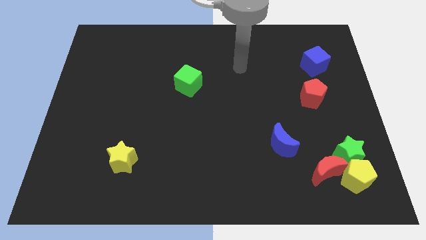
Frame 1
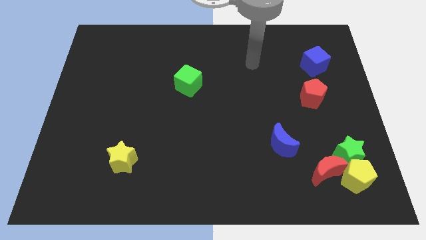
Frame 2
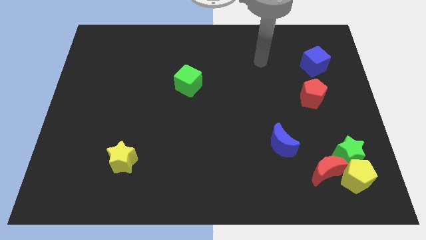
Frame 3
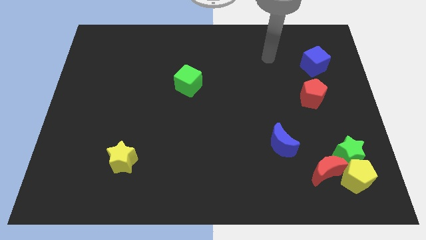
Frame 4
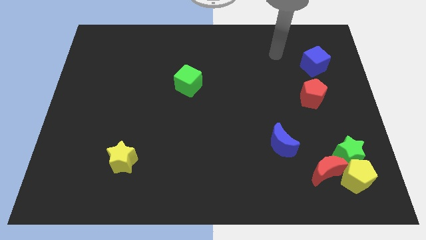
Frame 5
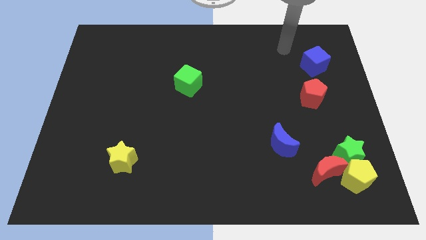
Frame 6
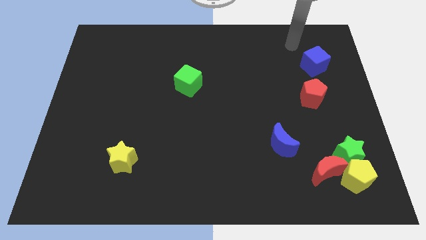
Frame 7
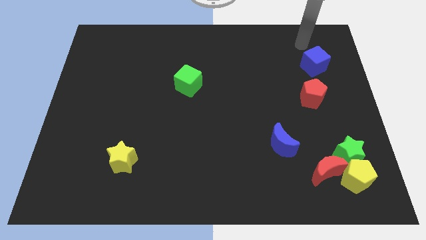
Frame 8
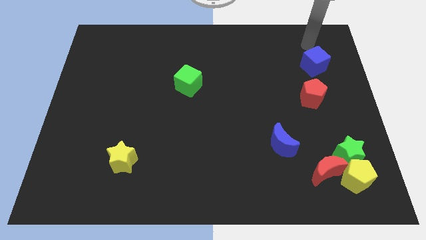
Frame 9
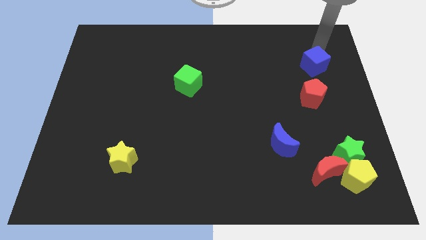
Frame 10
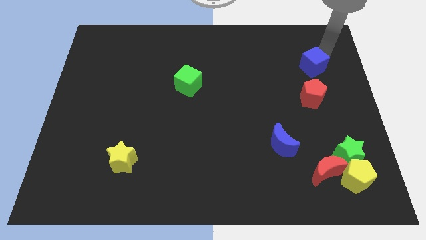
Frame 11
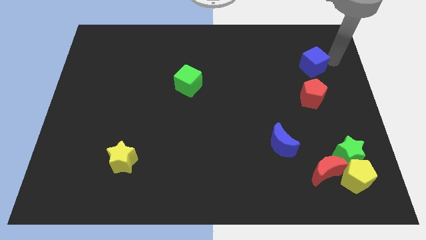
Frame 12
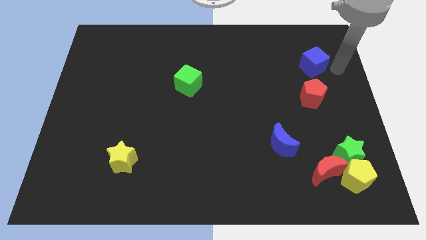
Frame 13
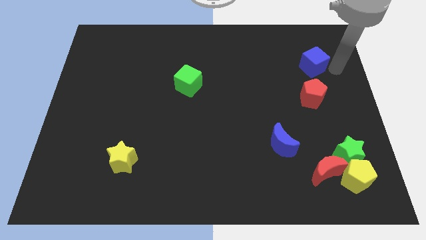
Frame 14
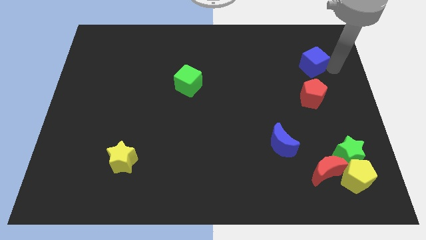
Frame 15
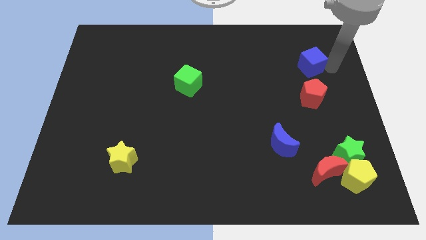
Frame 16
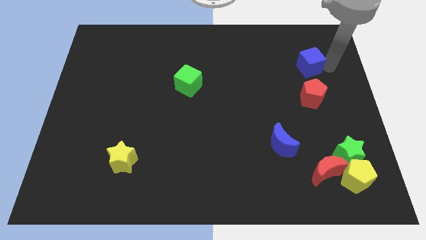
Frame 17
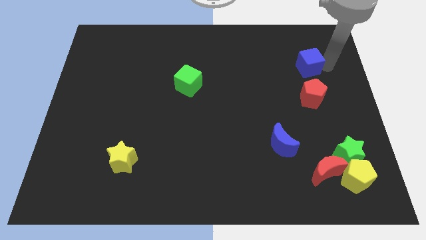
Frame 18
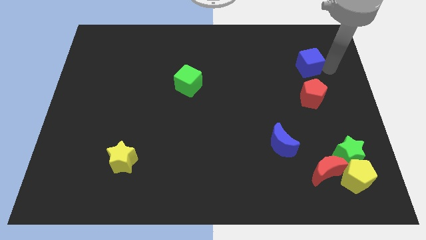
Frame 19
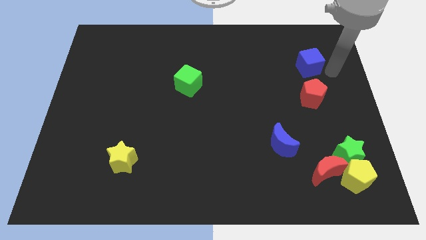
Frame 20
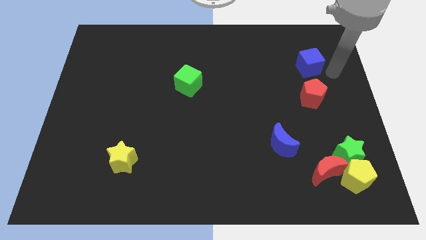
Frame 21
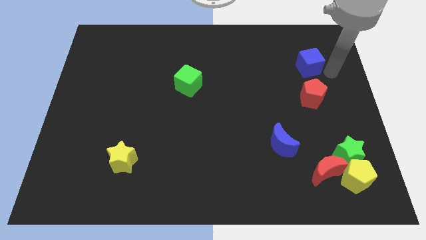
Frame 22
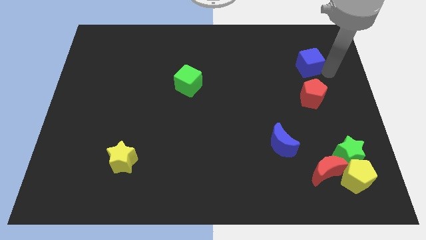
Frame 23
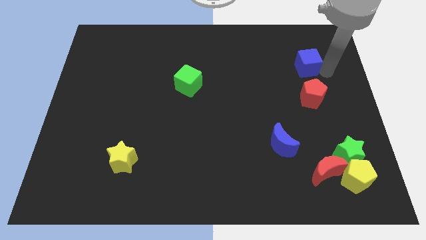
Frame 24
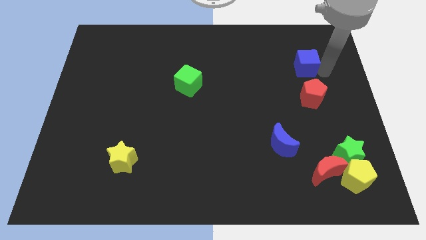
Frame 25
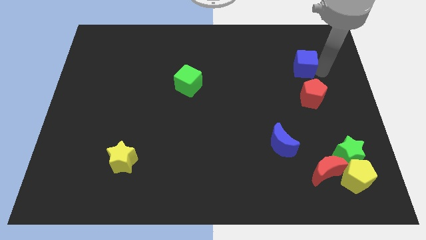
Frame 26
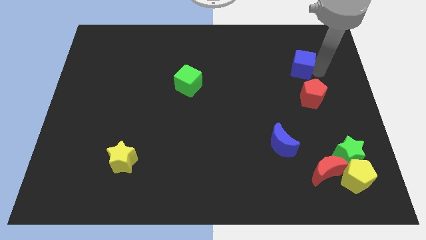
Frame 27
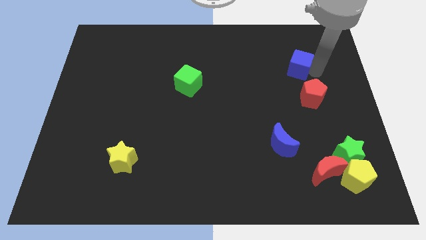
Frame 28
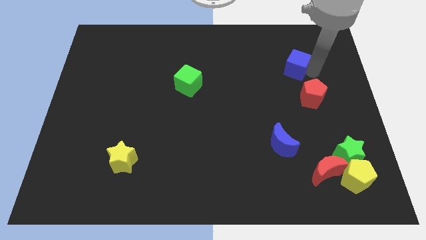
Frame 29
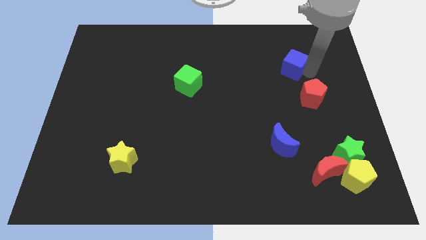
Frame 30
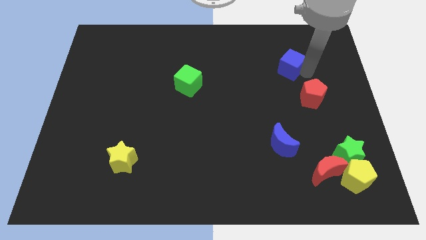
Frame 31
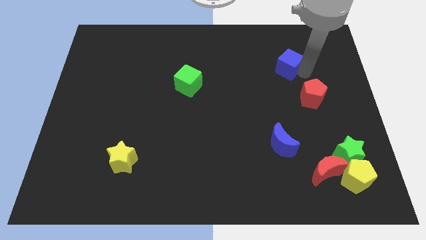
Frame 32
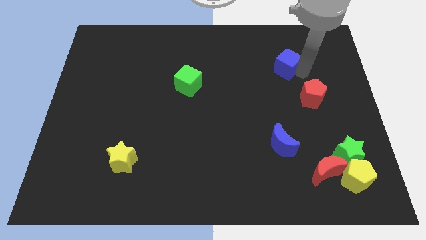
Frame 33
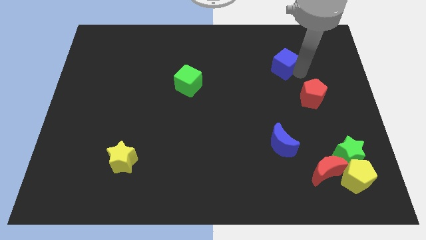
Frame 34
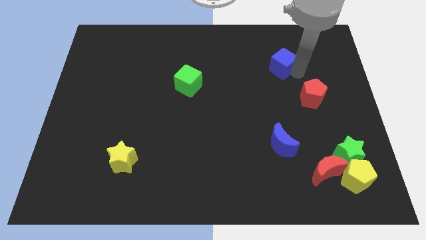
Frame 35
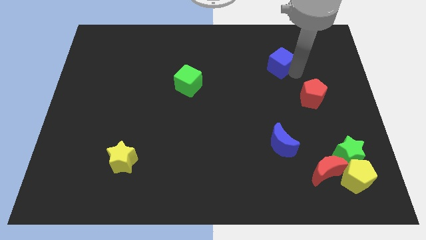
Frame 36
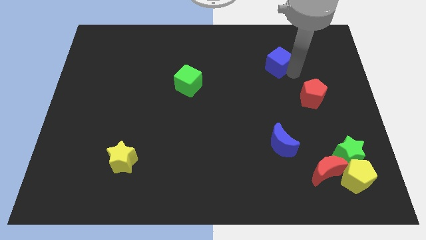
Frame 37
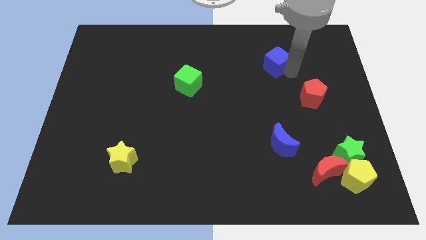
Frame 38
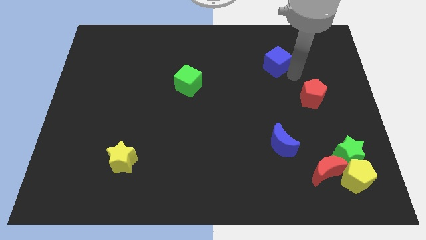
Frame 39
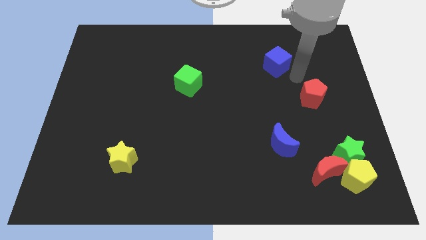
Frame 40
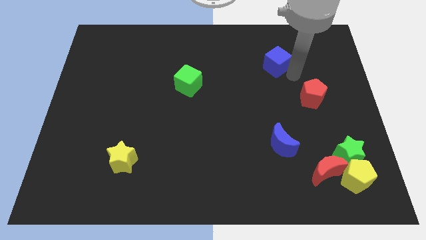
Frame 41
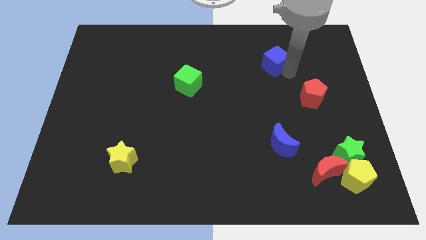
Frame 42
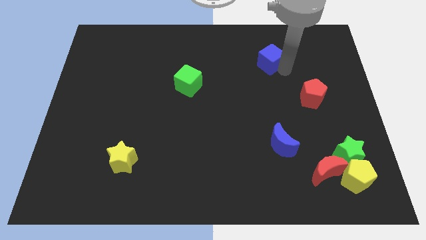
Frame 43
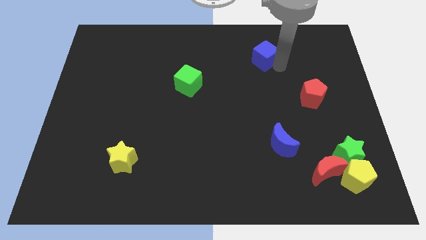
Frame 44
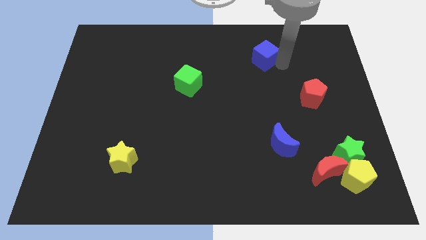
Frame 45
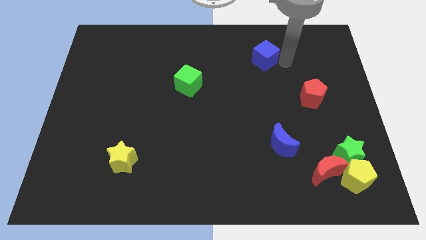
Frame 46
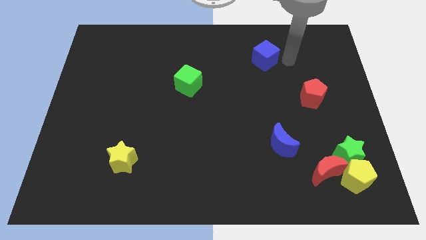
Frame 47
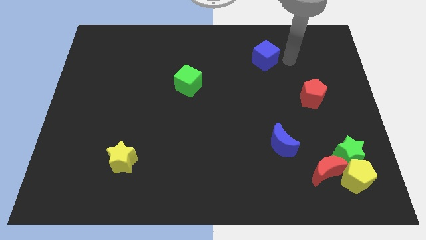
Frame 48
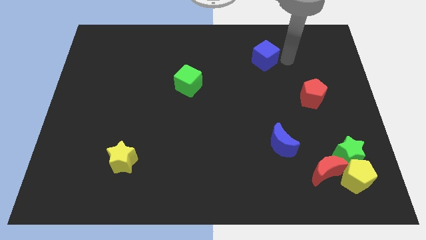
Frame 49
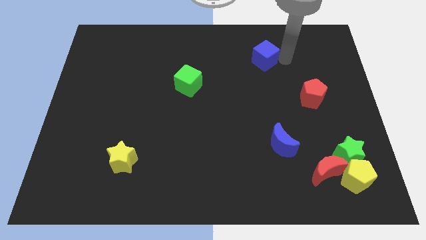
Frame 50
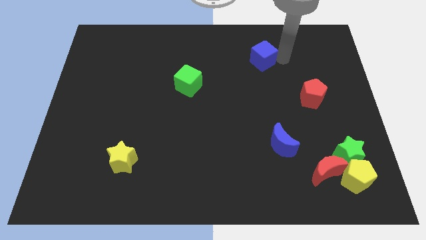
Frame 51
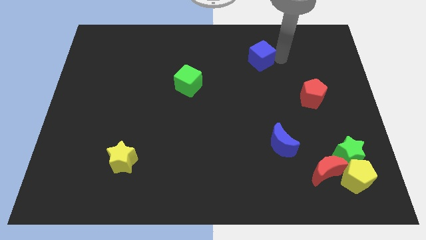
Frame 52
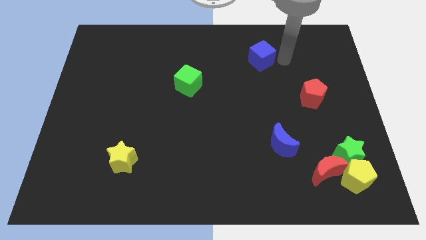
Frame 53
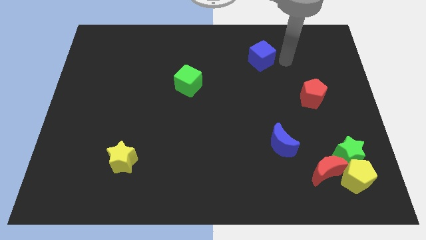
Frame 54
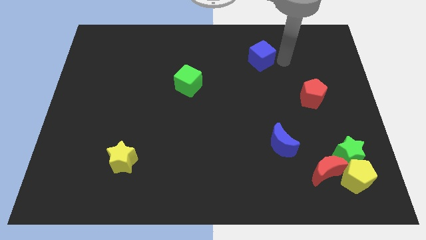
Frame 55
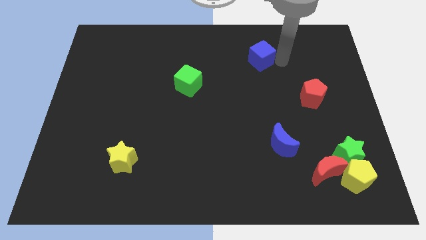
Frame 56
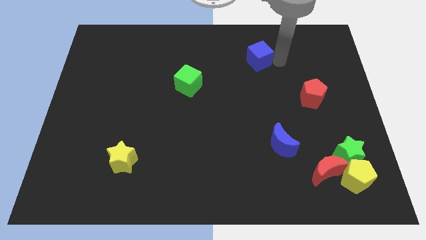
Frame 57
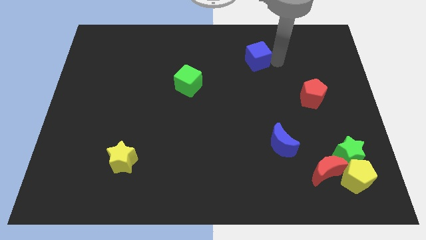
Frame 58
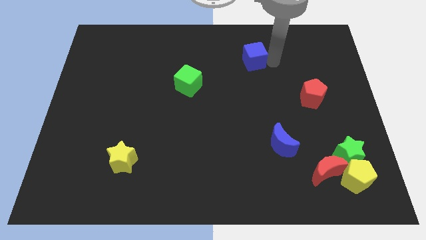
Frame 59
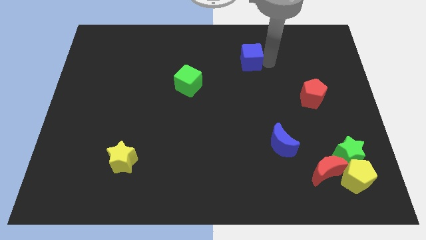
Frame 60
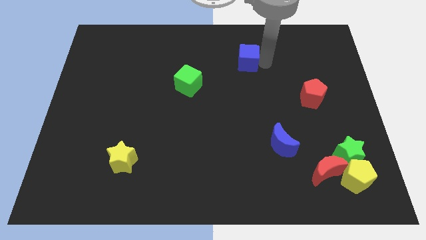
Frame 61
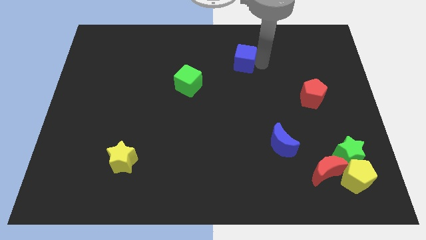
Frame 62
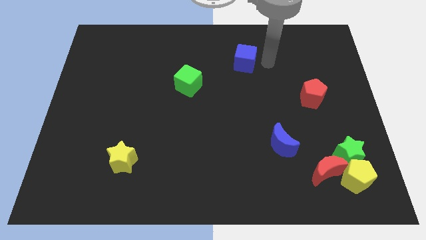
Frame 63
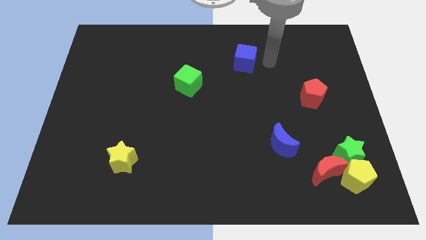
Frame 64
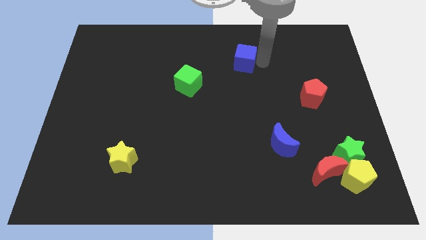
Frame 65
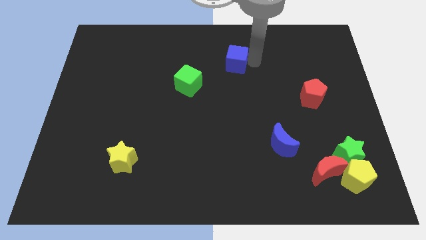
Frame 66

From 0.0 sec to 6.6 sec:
slide the blue cube to the left

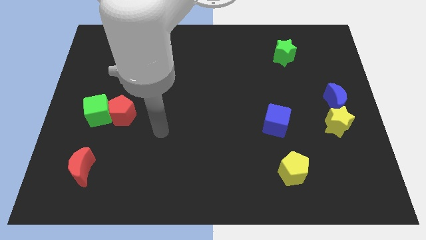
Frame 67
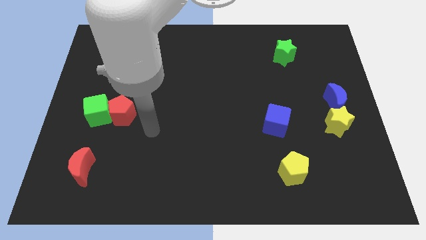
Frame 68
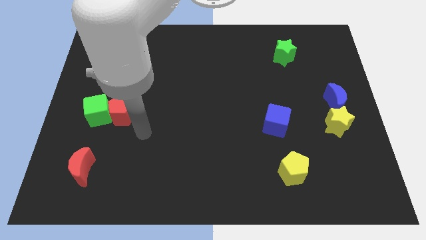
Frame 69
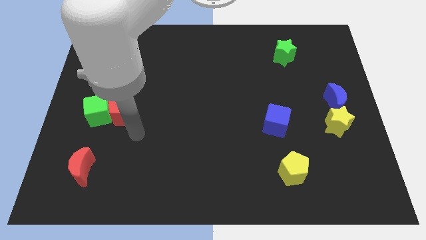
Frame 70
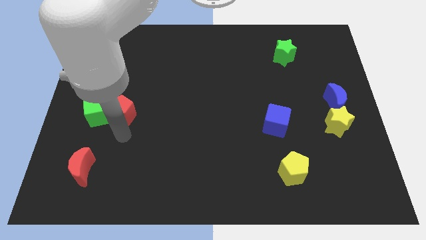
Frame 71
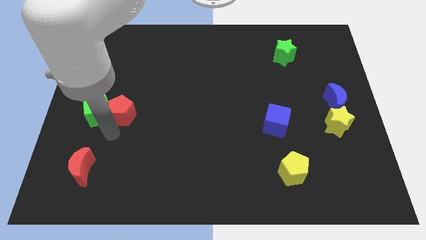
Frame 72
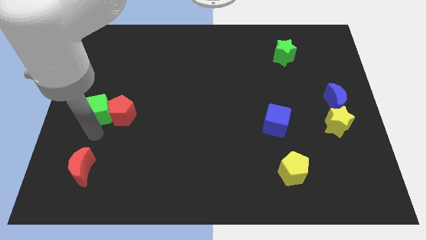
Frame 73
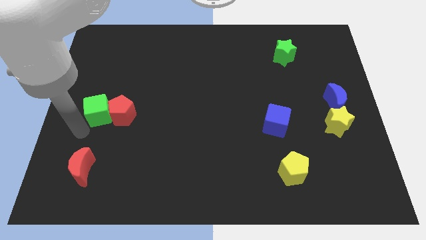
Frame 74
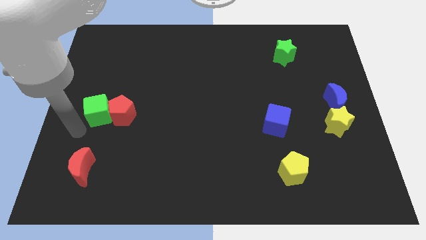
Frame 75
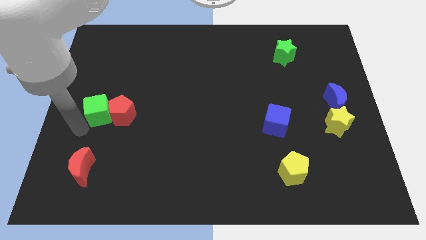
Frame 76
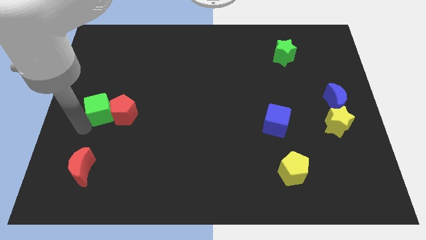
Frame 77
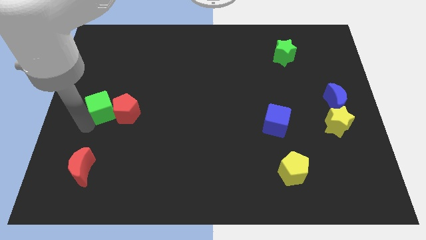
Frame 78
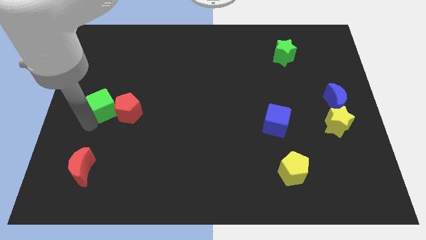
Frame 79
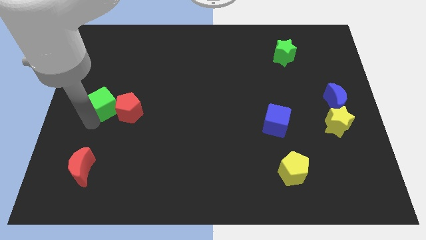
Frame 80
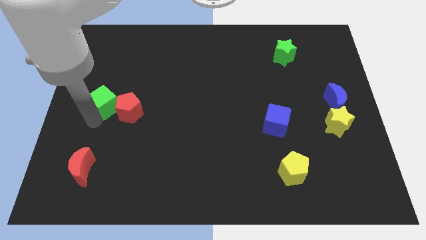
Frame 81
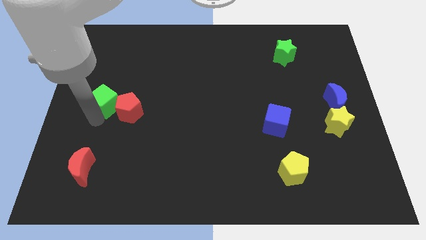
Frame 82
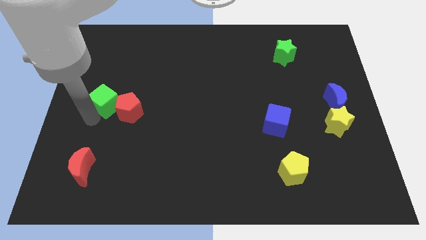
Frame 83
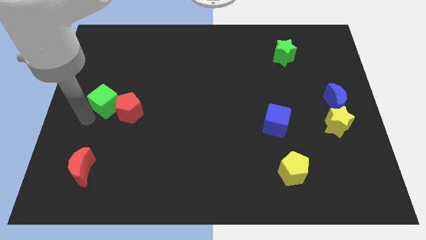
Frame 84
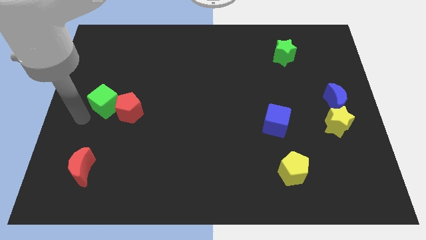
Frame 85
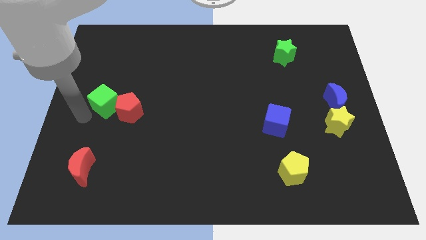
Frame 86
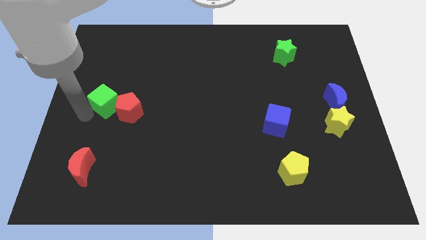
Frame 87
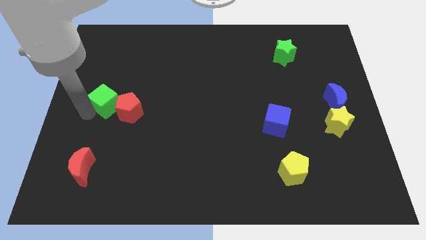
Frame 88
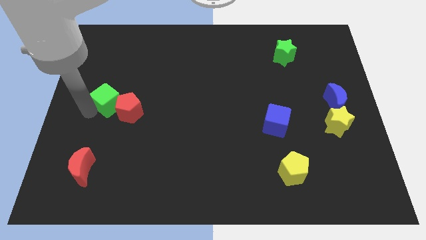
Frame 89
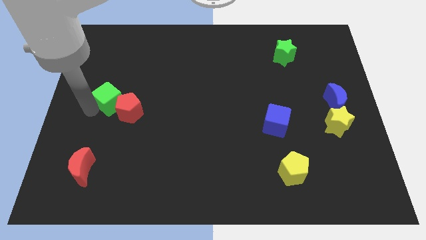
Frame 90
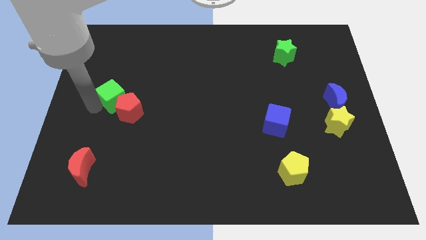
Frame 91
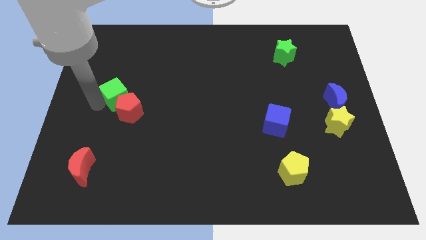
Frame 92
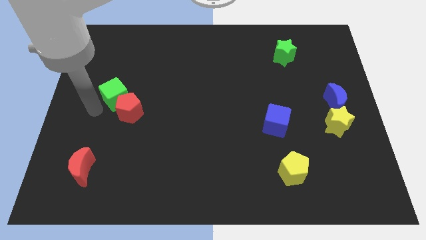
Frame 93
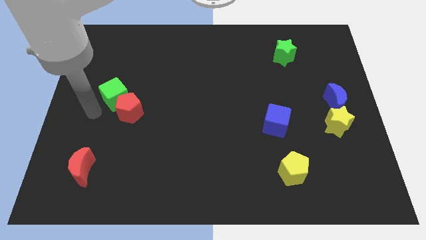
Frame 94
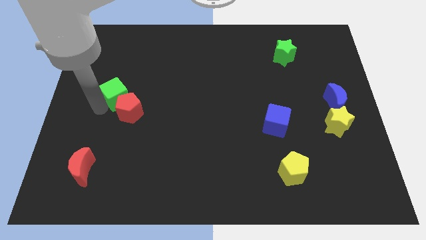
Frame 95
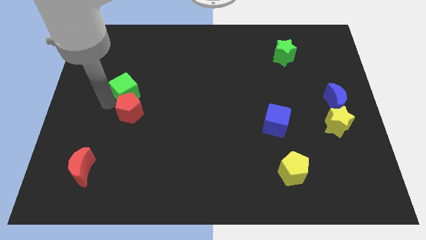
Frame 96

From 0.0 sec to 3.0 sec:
move the green cube diagonally upwards and to the right slightly
